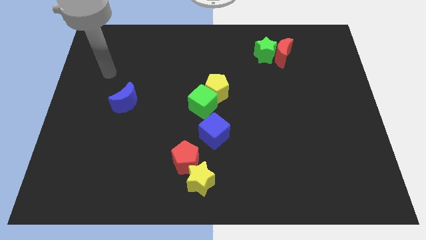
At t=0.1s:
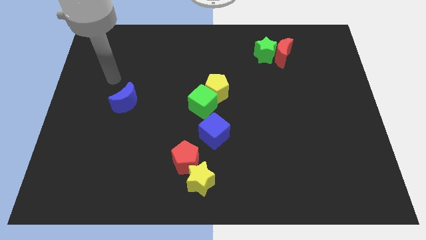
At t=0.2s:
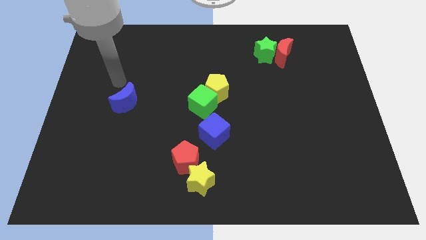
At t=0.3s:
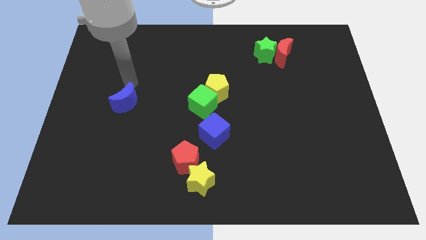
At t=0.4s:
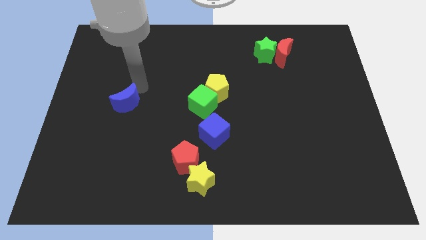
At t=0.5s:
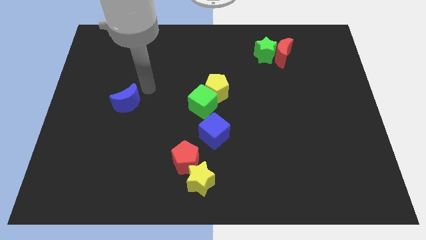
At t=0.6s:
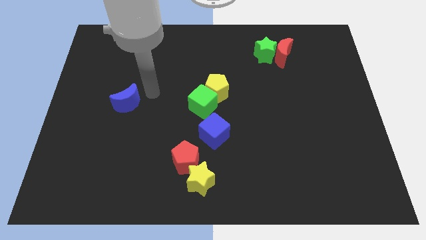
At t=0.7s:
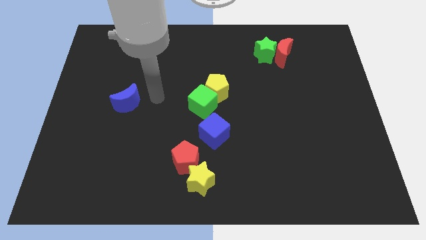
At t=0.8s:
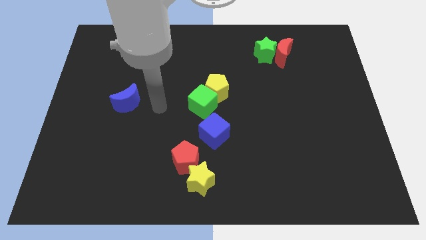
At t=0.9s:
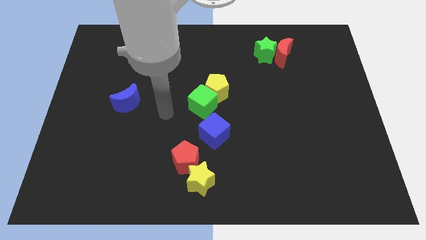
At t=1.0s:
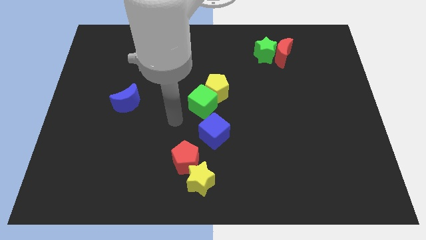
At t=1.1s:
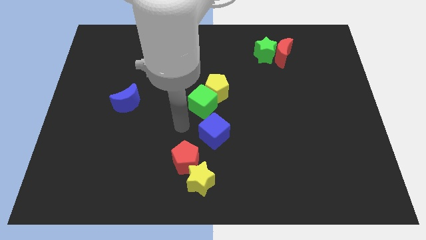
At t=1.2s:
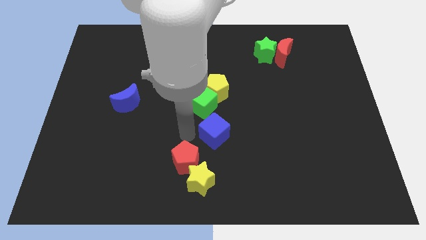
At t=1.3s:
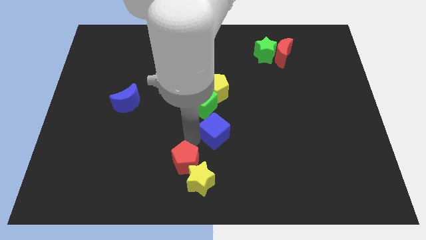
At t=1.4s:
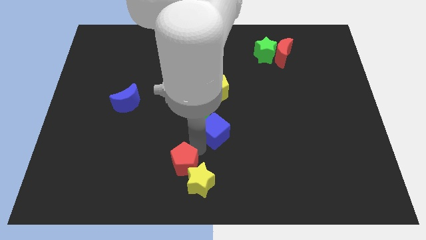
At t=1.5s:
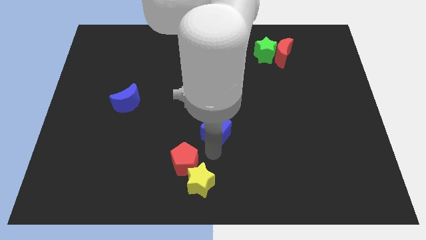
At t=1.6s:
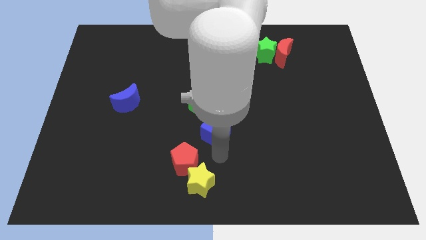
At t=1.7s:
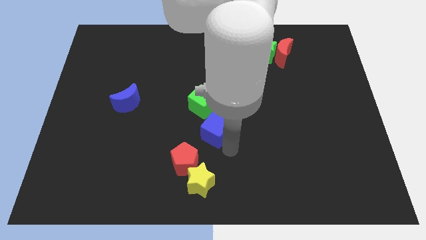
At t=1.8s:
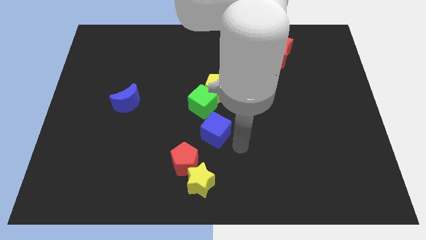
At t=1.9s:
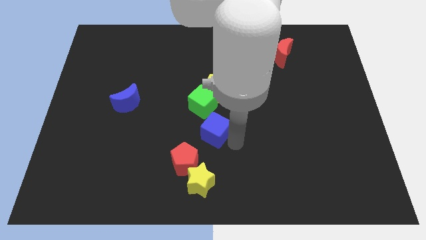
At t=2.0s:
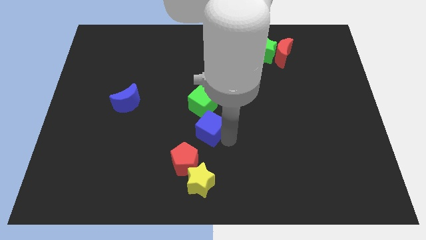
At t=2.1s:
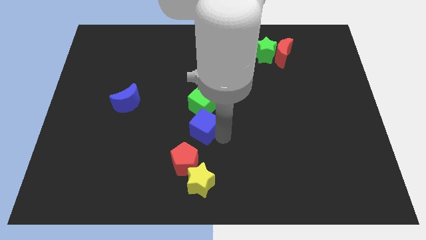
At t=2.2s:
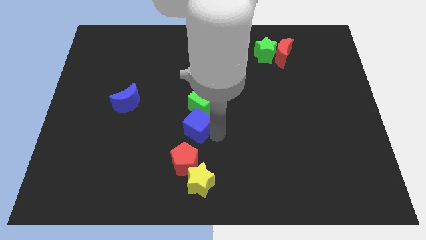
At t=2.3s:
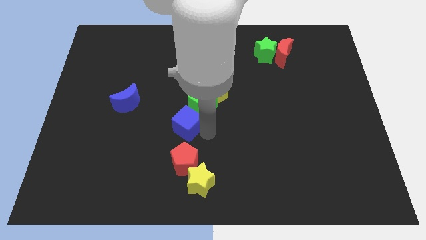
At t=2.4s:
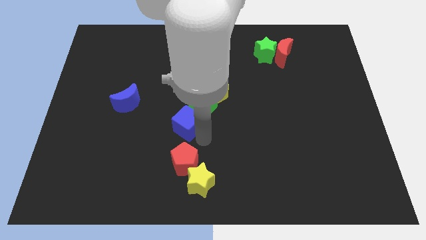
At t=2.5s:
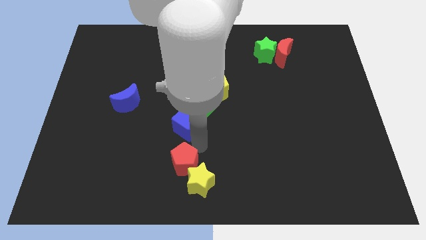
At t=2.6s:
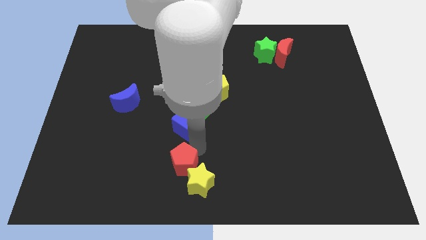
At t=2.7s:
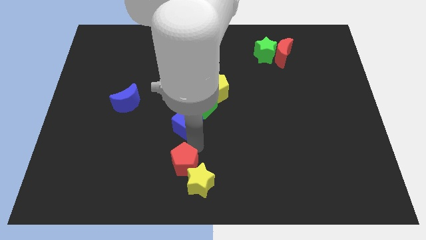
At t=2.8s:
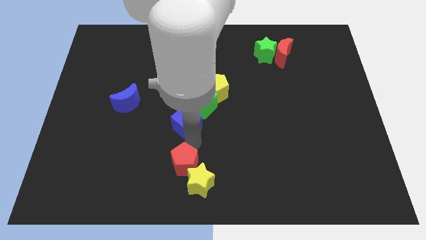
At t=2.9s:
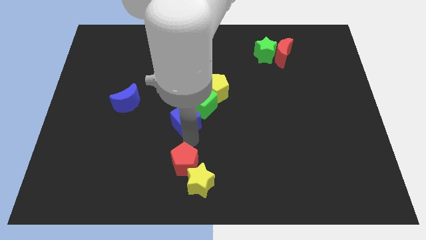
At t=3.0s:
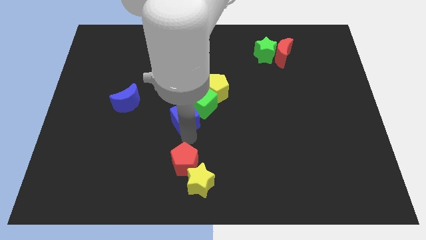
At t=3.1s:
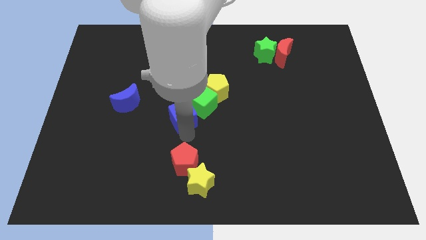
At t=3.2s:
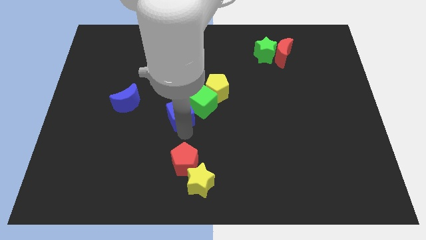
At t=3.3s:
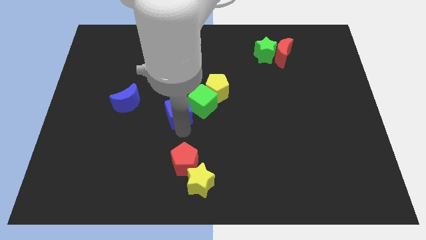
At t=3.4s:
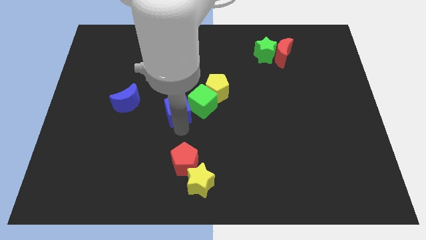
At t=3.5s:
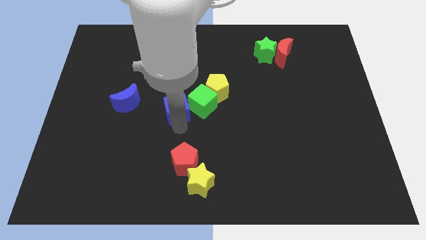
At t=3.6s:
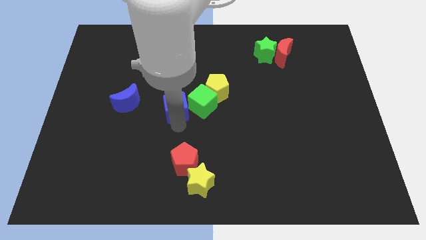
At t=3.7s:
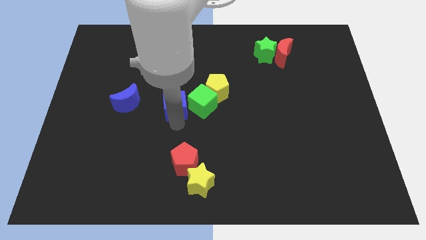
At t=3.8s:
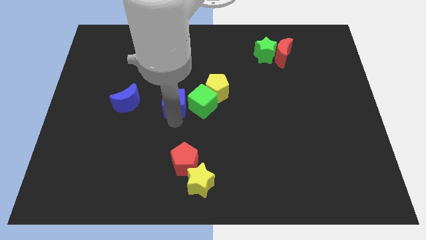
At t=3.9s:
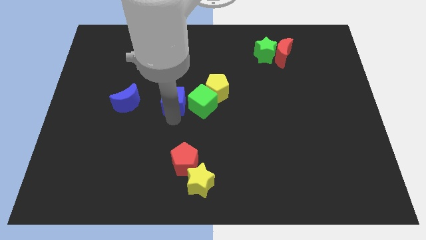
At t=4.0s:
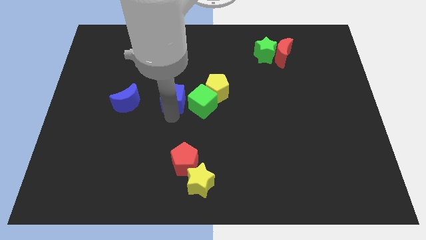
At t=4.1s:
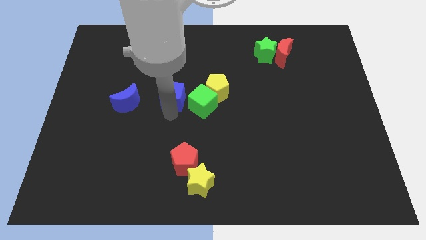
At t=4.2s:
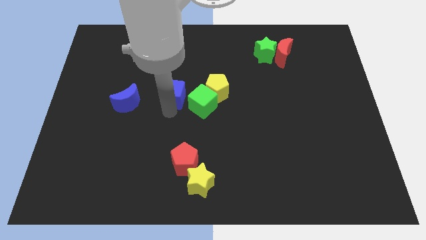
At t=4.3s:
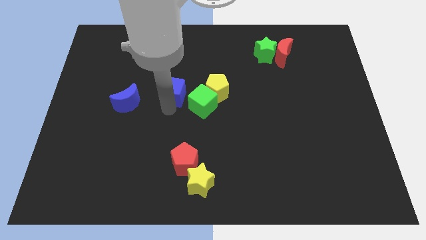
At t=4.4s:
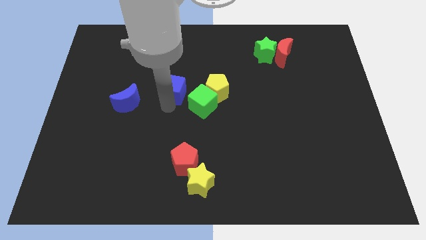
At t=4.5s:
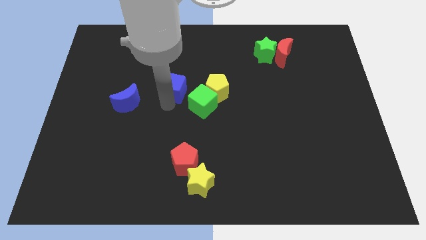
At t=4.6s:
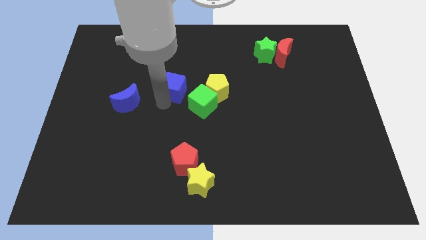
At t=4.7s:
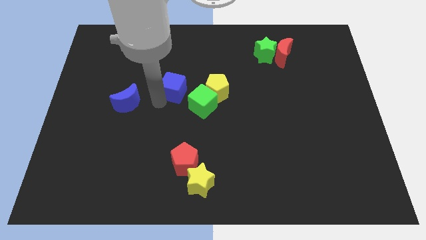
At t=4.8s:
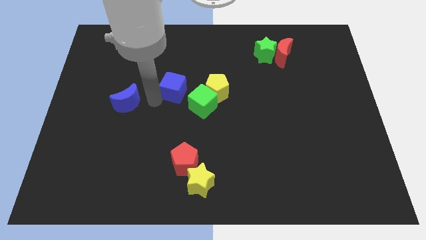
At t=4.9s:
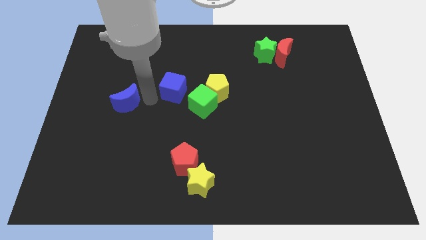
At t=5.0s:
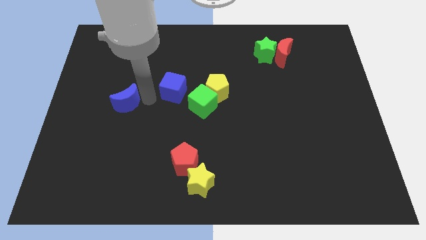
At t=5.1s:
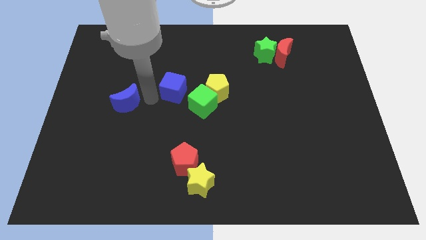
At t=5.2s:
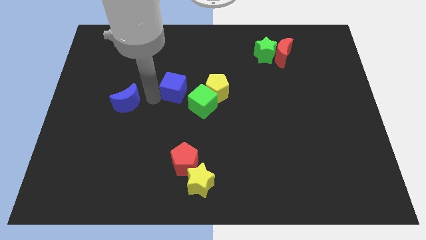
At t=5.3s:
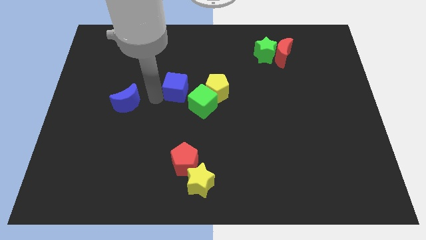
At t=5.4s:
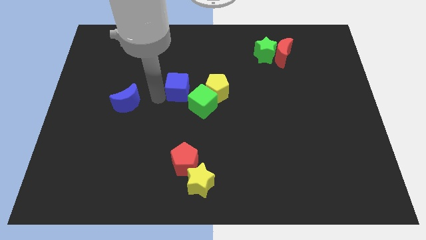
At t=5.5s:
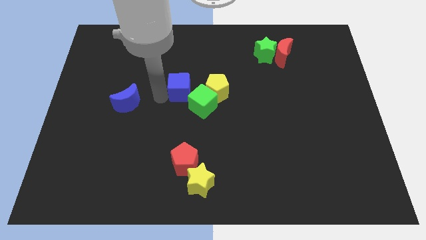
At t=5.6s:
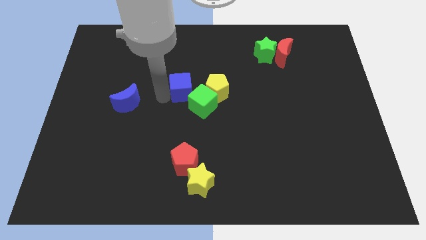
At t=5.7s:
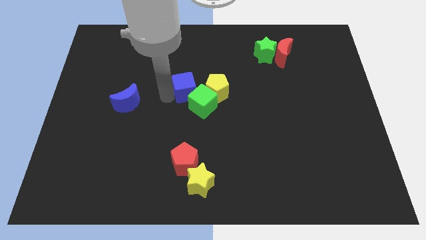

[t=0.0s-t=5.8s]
slide the blue cube above the green cube

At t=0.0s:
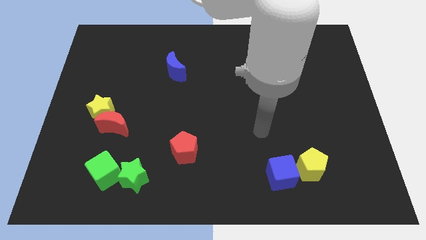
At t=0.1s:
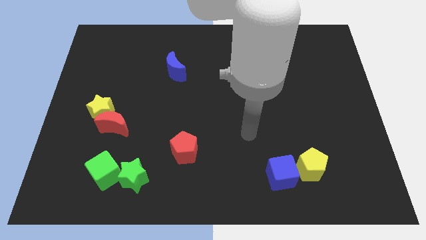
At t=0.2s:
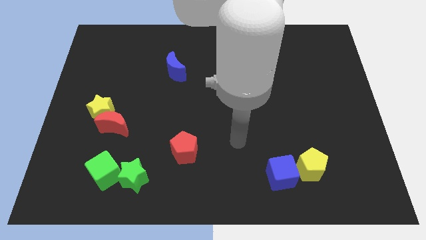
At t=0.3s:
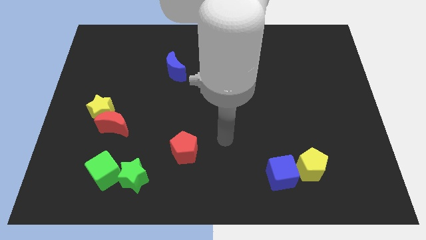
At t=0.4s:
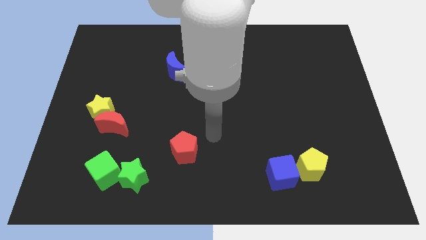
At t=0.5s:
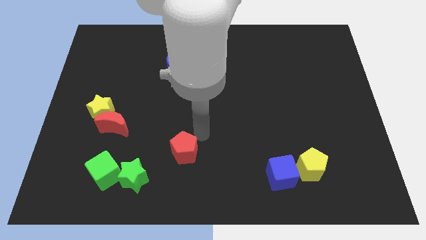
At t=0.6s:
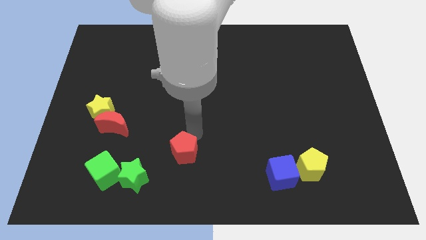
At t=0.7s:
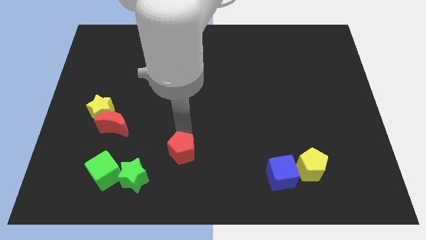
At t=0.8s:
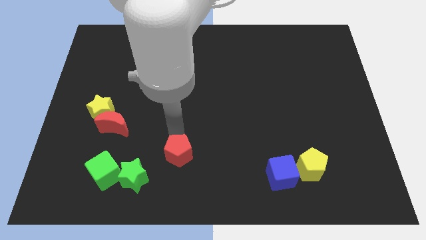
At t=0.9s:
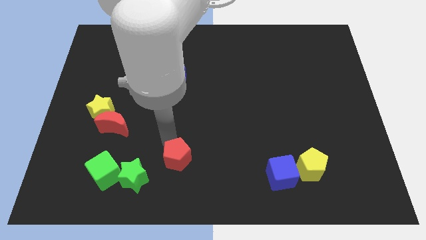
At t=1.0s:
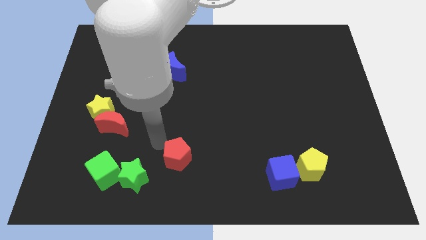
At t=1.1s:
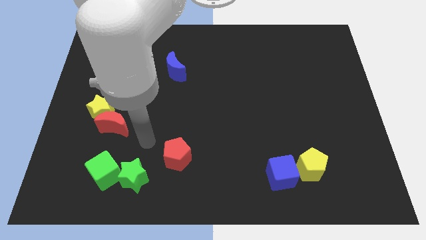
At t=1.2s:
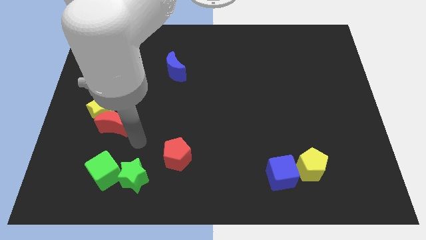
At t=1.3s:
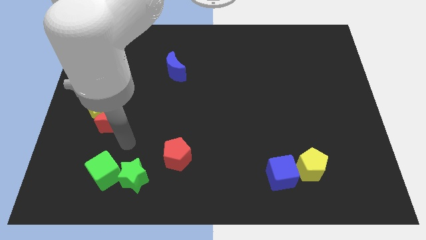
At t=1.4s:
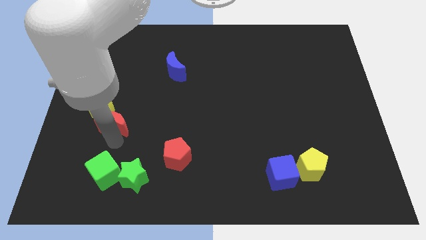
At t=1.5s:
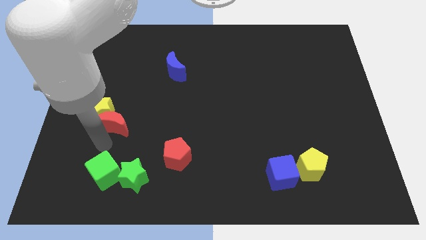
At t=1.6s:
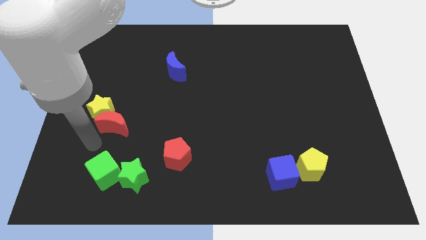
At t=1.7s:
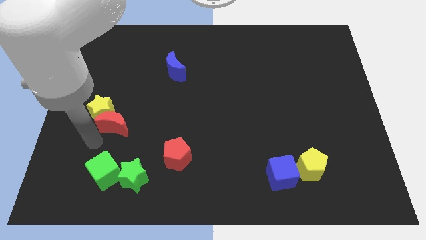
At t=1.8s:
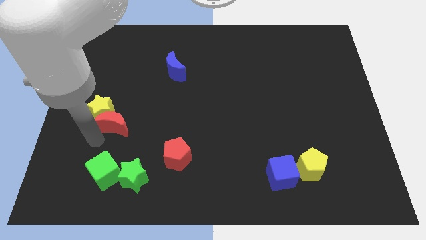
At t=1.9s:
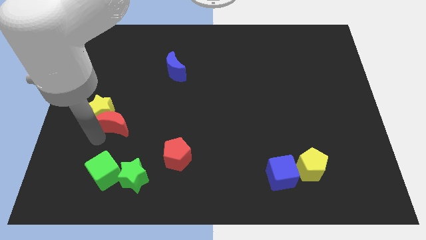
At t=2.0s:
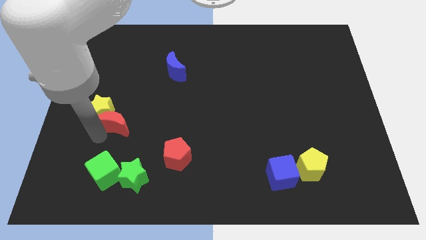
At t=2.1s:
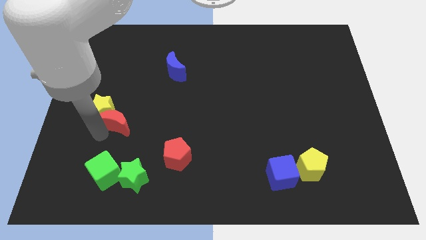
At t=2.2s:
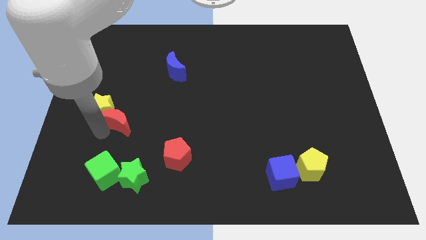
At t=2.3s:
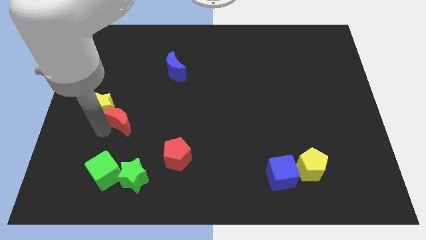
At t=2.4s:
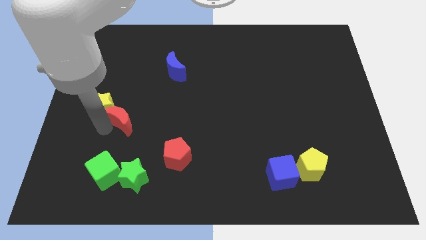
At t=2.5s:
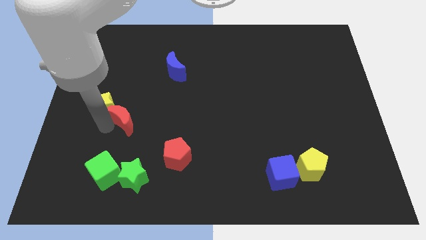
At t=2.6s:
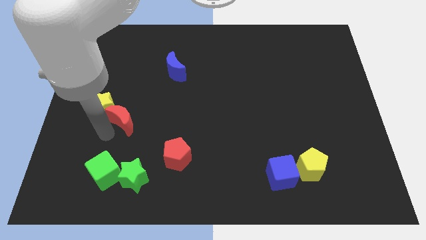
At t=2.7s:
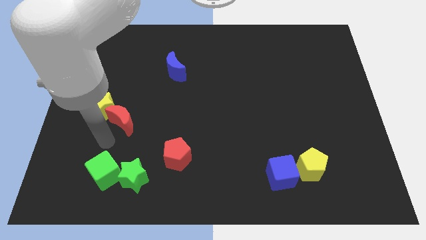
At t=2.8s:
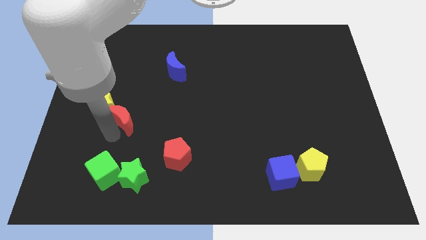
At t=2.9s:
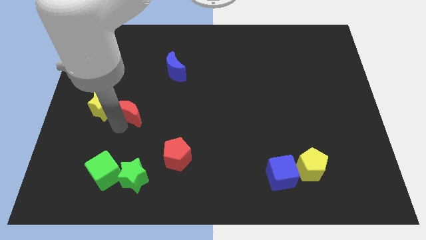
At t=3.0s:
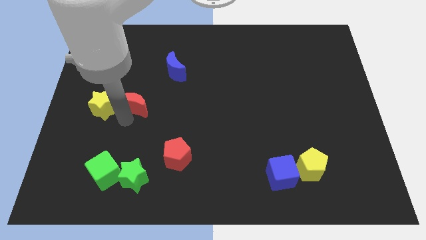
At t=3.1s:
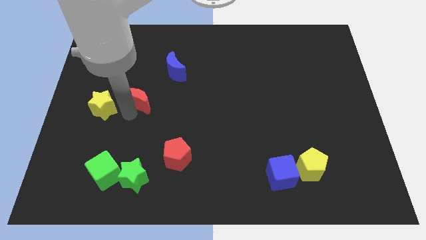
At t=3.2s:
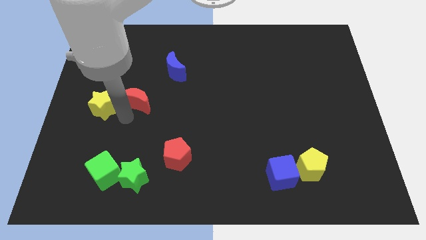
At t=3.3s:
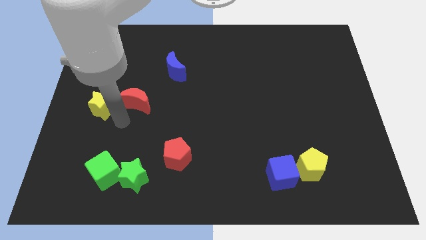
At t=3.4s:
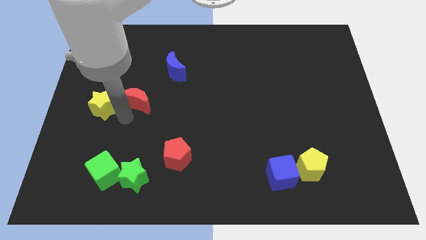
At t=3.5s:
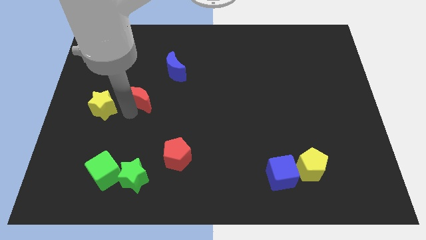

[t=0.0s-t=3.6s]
push the red moon to the bottom left side of the blue moon
